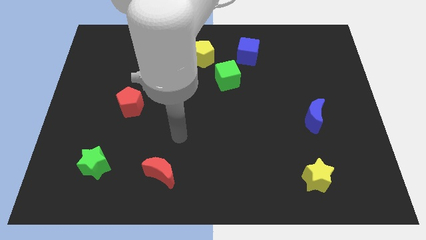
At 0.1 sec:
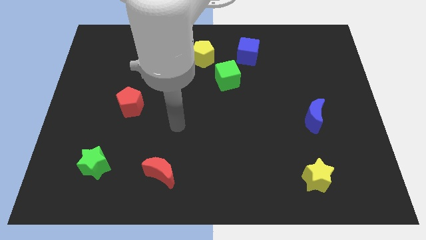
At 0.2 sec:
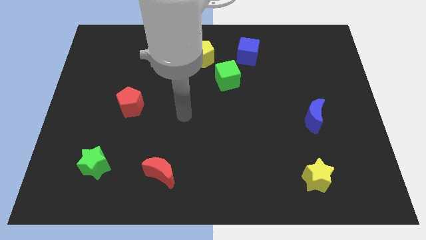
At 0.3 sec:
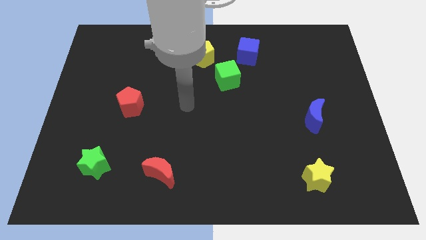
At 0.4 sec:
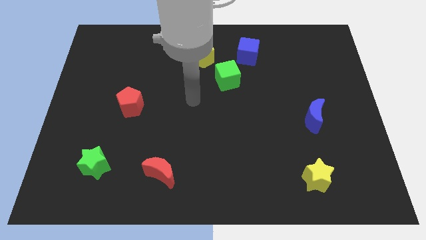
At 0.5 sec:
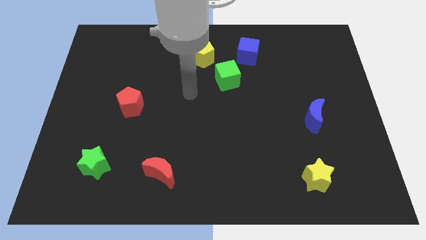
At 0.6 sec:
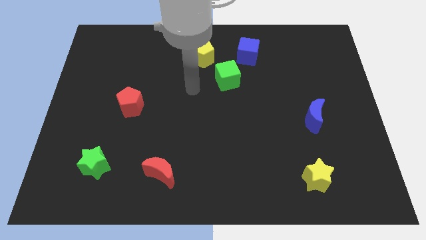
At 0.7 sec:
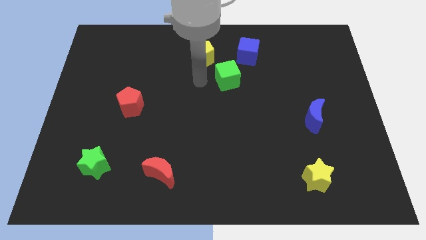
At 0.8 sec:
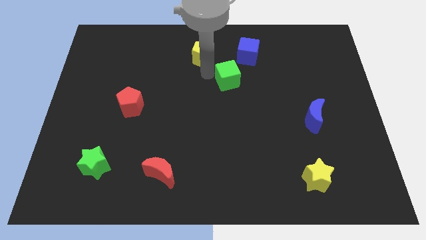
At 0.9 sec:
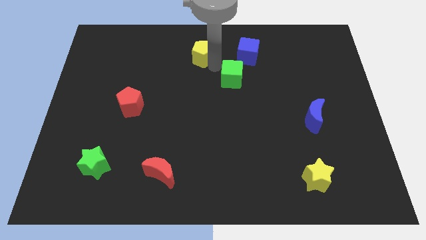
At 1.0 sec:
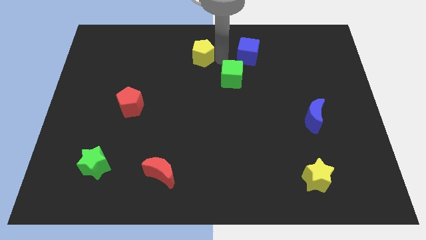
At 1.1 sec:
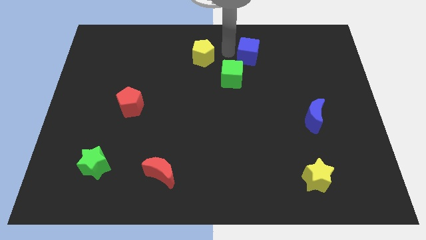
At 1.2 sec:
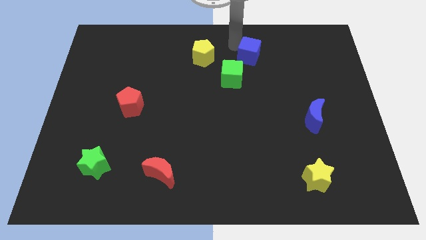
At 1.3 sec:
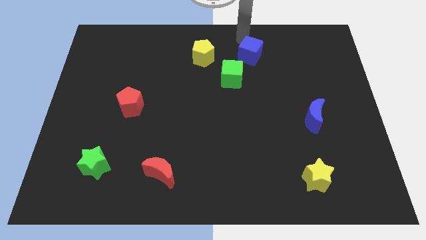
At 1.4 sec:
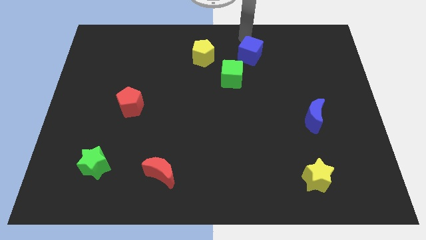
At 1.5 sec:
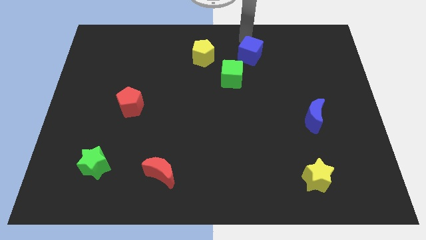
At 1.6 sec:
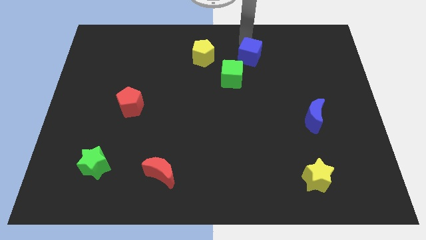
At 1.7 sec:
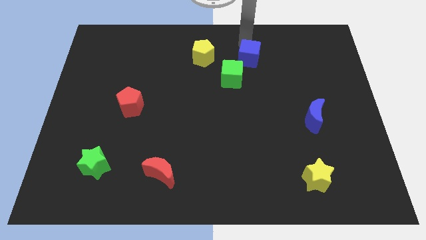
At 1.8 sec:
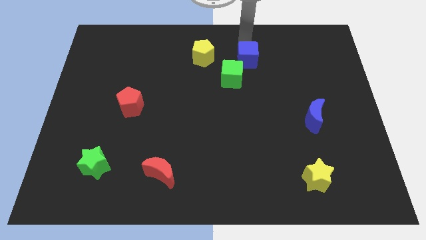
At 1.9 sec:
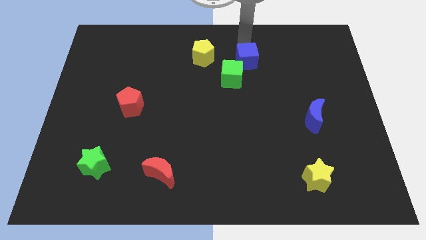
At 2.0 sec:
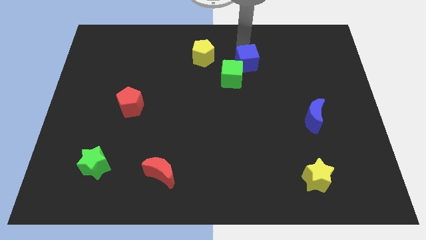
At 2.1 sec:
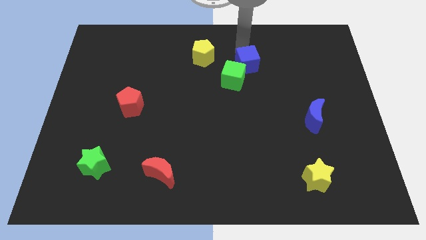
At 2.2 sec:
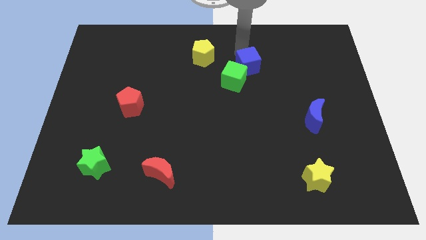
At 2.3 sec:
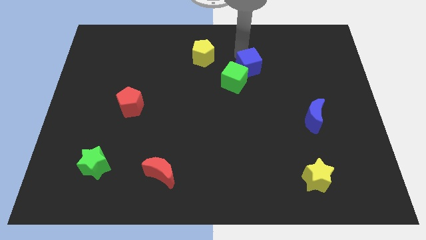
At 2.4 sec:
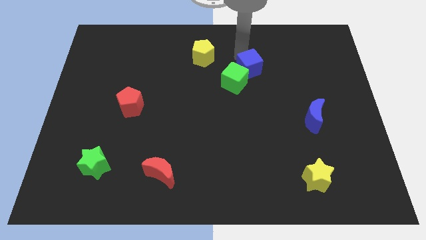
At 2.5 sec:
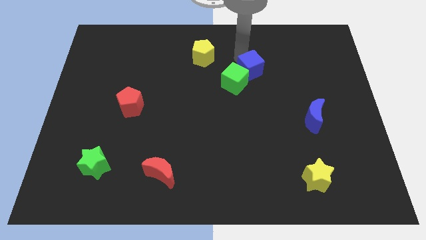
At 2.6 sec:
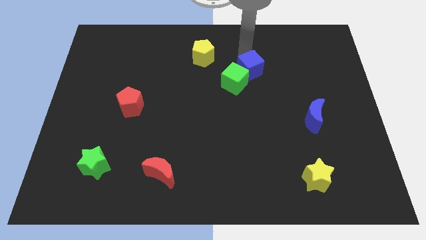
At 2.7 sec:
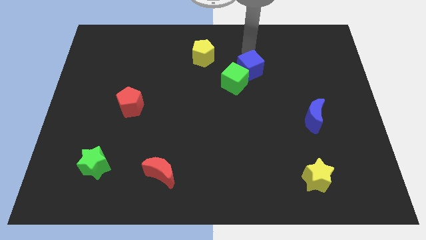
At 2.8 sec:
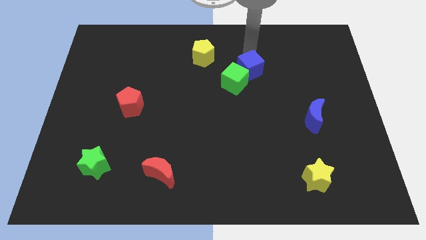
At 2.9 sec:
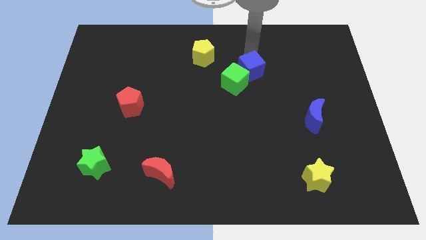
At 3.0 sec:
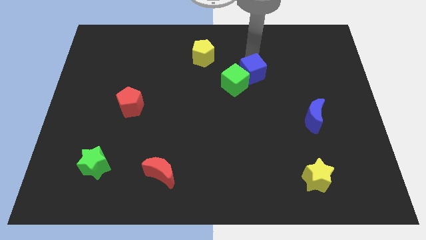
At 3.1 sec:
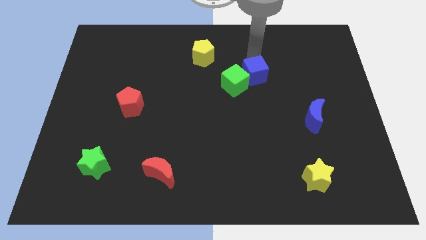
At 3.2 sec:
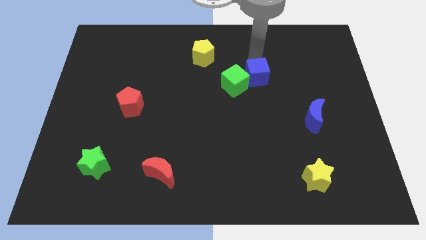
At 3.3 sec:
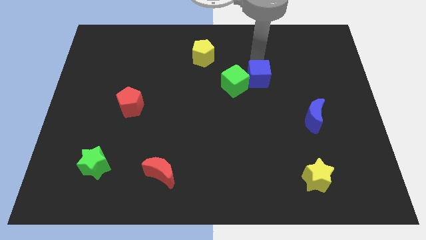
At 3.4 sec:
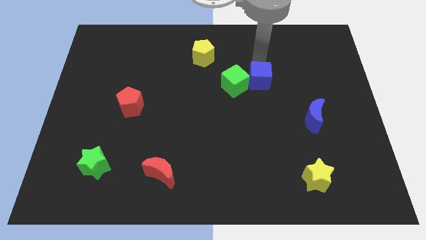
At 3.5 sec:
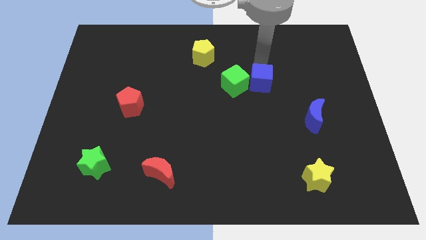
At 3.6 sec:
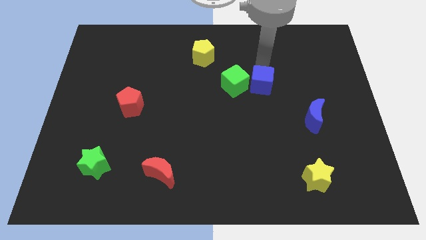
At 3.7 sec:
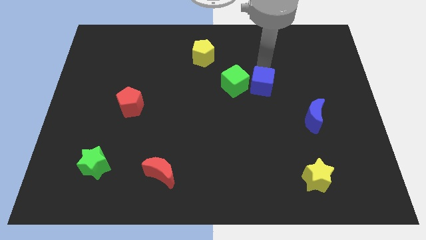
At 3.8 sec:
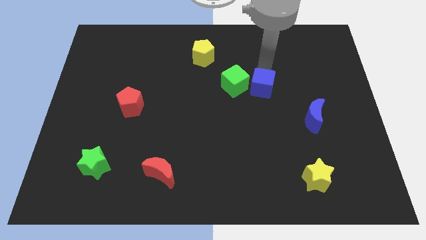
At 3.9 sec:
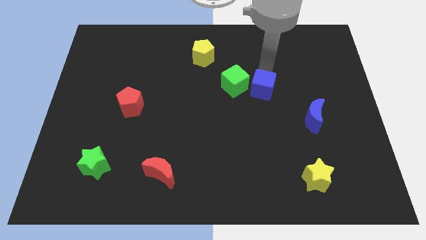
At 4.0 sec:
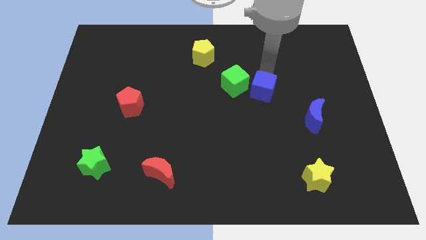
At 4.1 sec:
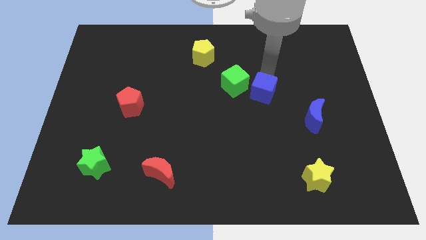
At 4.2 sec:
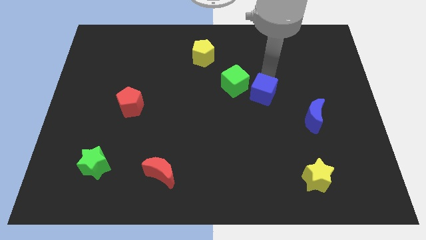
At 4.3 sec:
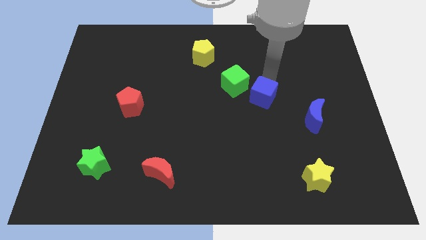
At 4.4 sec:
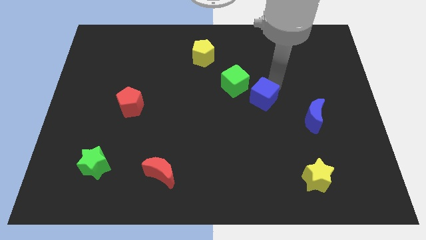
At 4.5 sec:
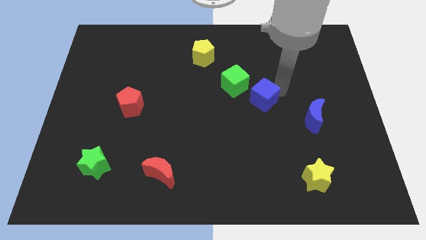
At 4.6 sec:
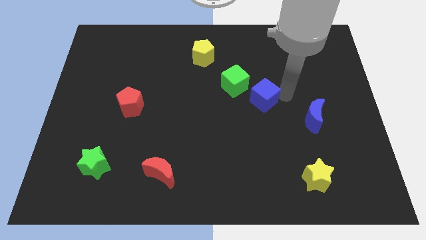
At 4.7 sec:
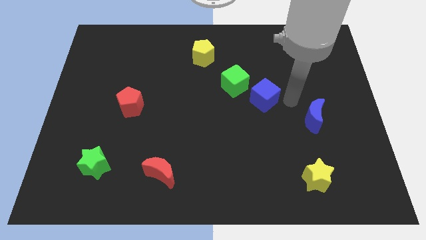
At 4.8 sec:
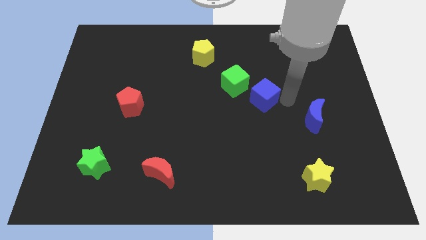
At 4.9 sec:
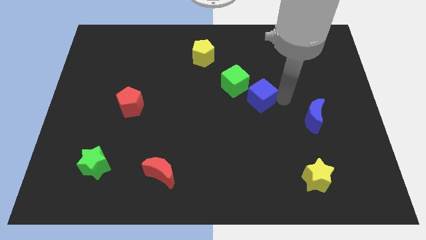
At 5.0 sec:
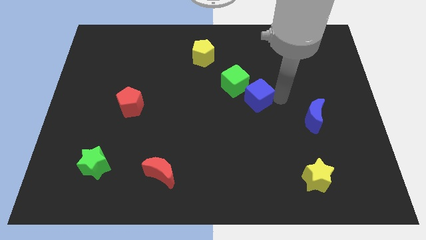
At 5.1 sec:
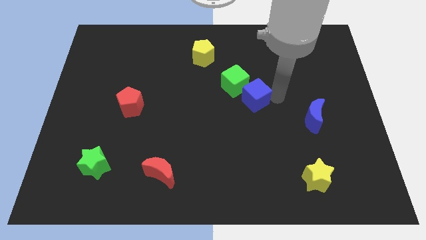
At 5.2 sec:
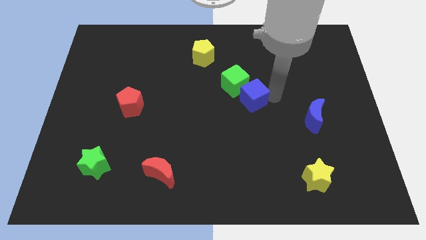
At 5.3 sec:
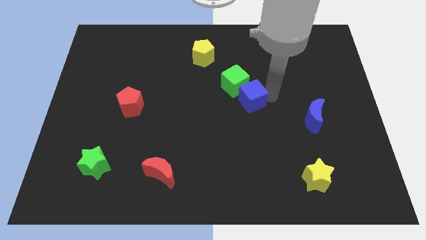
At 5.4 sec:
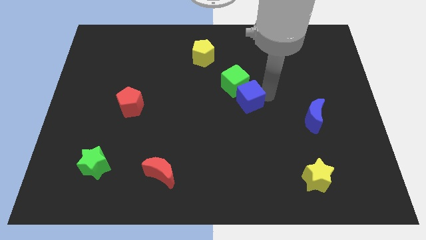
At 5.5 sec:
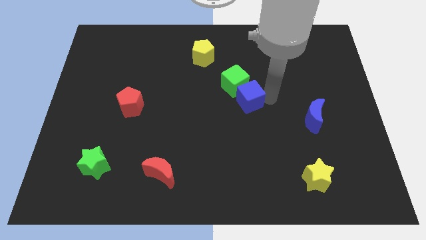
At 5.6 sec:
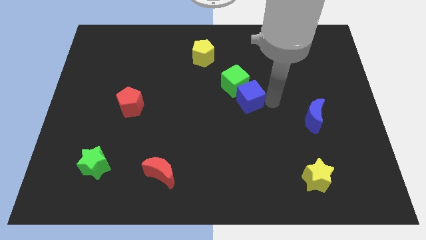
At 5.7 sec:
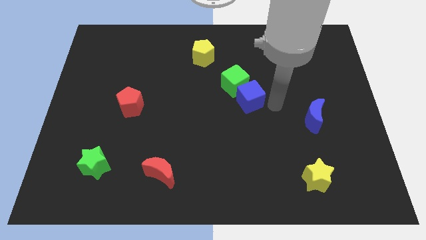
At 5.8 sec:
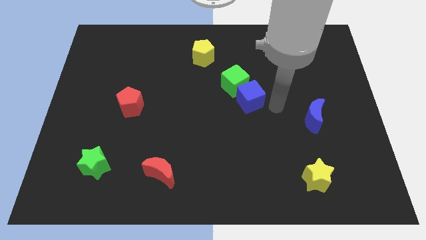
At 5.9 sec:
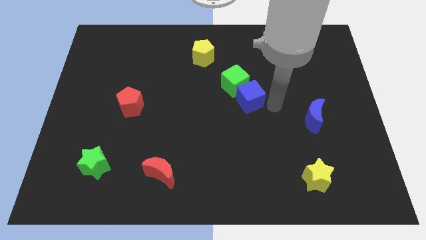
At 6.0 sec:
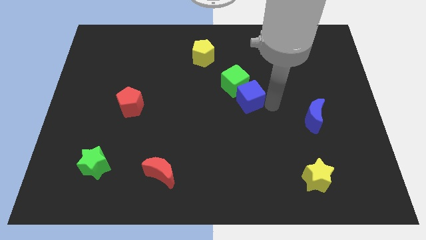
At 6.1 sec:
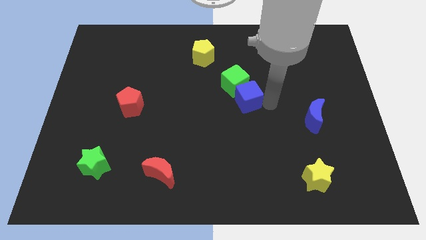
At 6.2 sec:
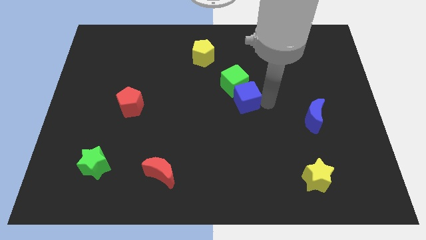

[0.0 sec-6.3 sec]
slightly slide the blue cube downwards and then left

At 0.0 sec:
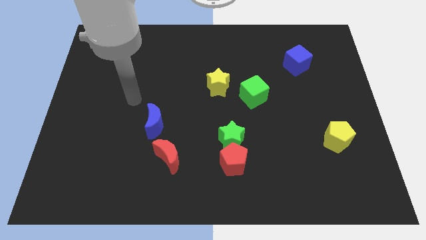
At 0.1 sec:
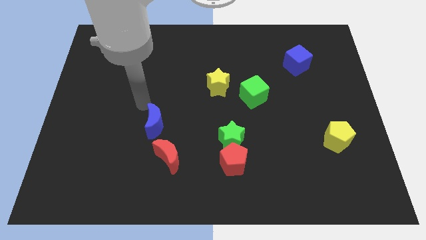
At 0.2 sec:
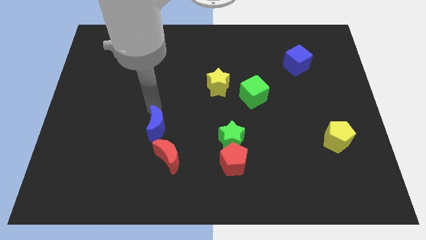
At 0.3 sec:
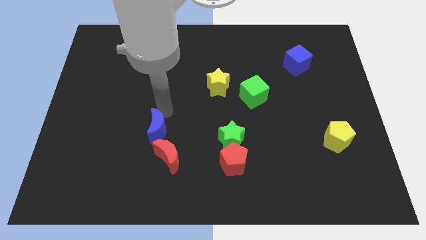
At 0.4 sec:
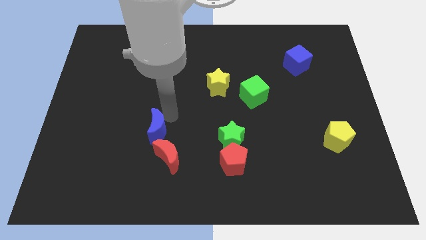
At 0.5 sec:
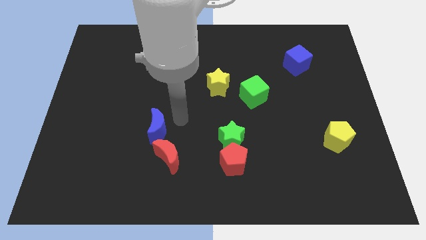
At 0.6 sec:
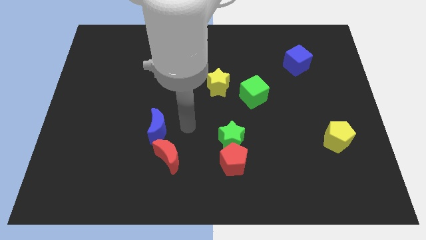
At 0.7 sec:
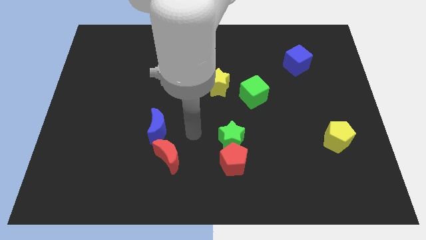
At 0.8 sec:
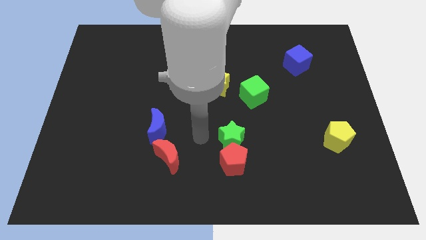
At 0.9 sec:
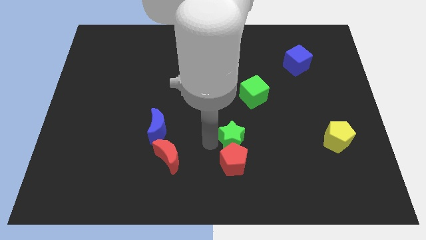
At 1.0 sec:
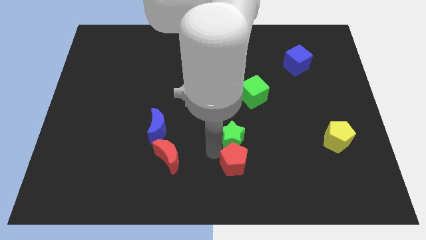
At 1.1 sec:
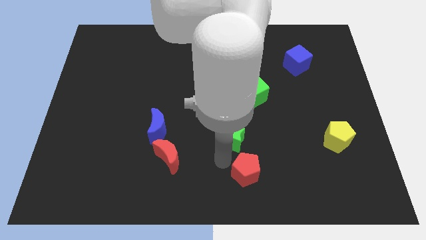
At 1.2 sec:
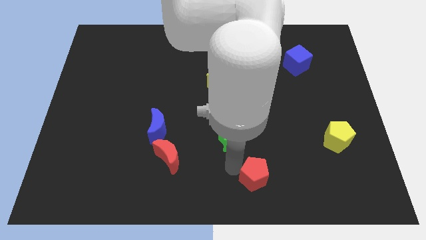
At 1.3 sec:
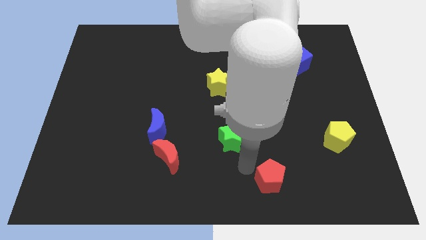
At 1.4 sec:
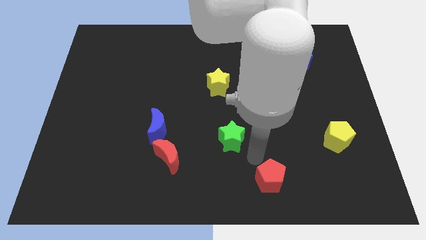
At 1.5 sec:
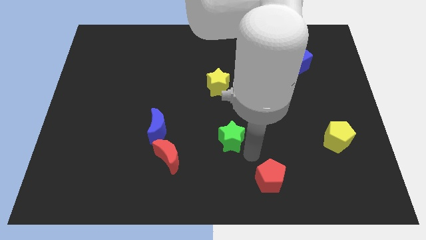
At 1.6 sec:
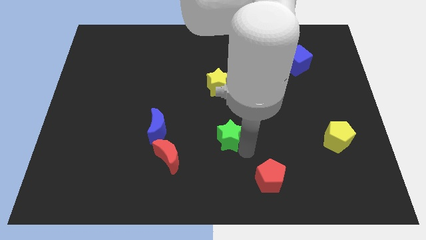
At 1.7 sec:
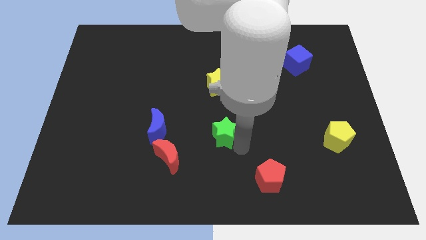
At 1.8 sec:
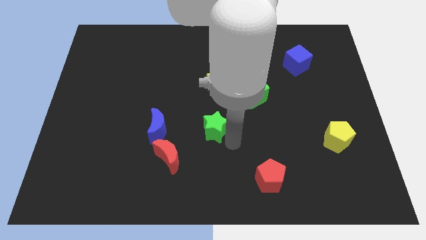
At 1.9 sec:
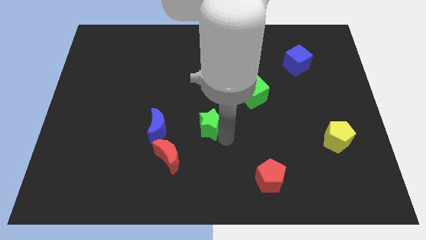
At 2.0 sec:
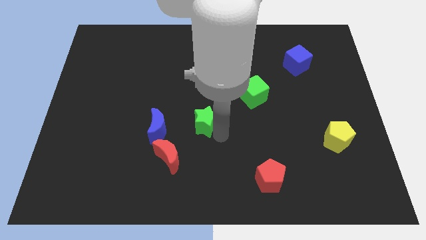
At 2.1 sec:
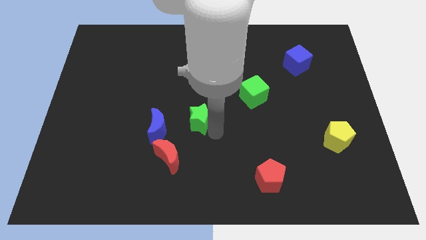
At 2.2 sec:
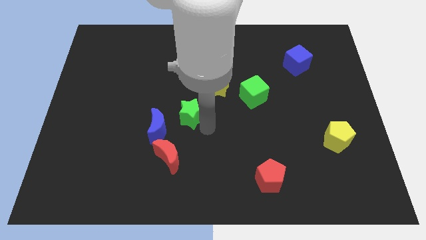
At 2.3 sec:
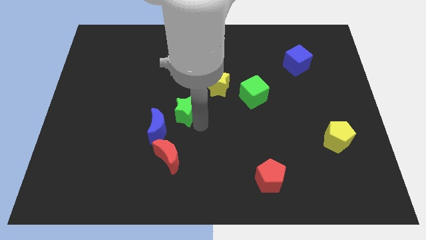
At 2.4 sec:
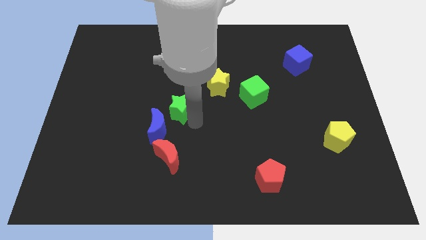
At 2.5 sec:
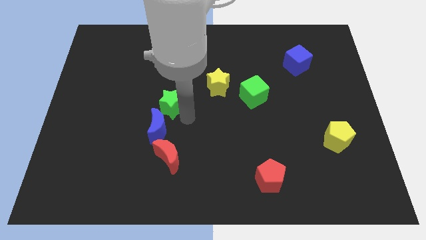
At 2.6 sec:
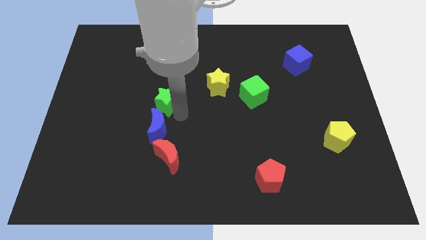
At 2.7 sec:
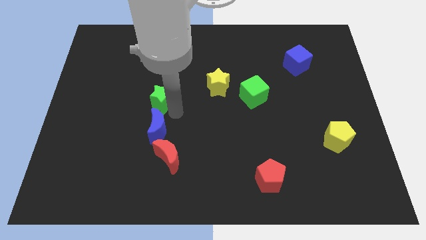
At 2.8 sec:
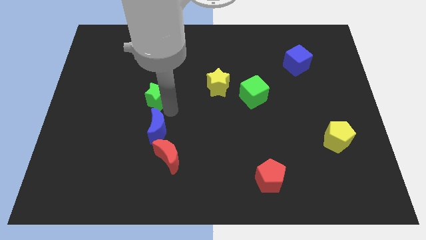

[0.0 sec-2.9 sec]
slide the green star diagonally upwards and left
